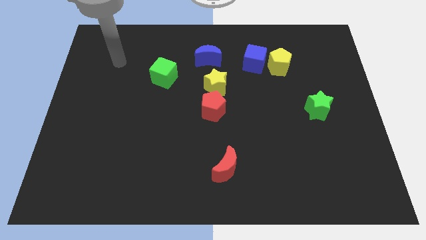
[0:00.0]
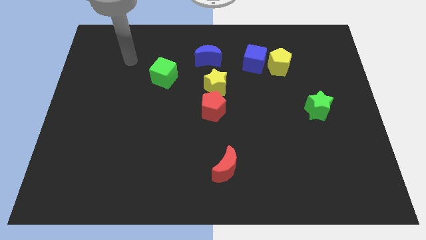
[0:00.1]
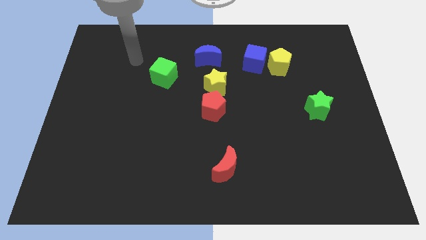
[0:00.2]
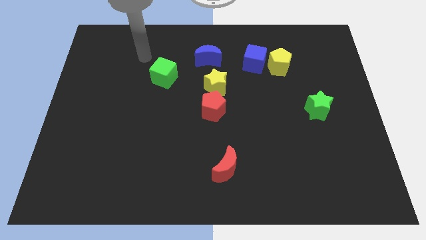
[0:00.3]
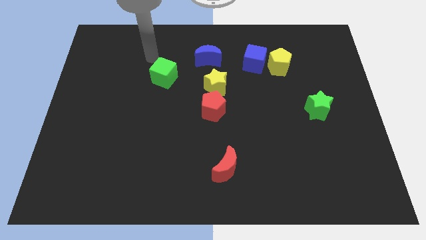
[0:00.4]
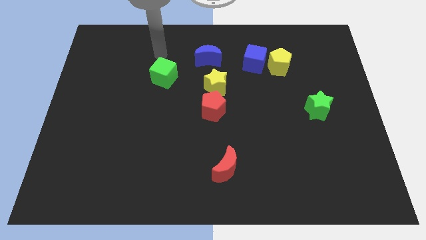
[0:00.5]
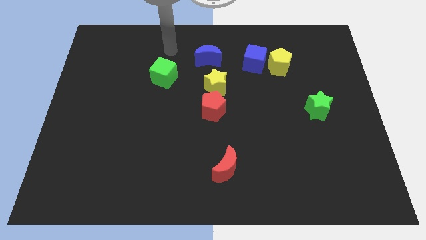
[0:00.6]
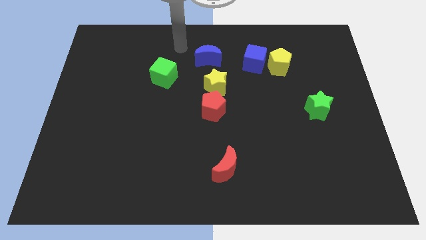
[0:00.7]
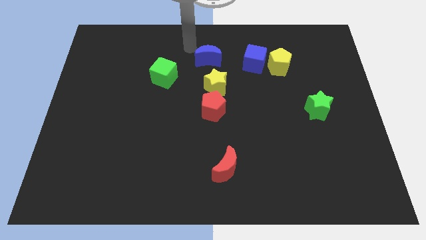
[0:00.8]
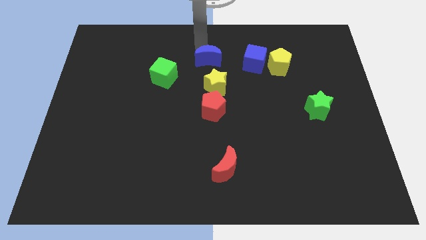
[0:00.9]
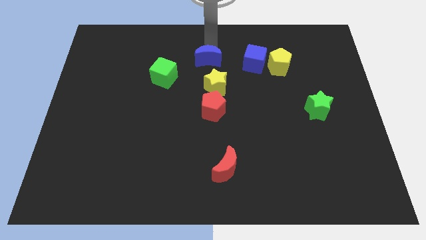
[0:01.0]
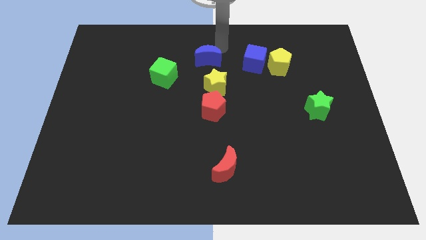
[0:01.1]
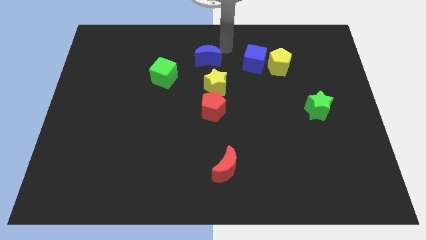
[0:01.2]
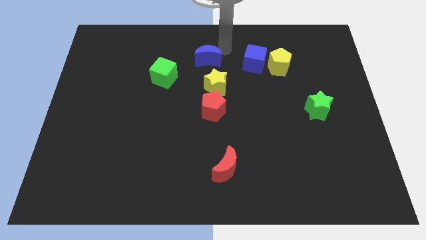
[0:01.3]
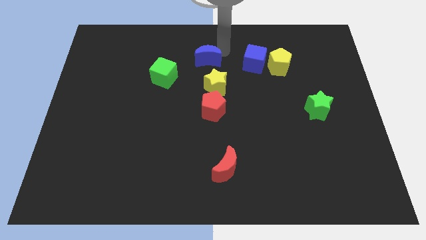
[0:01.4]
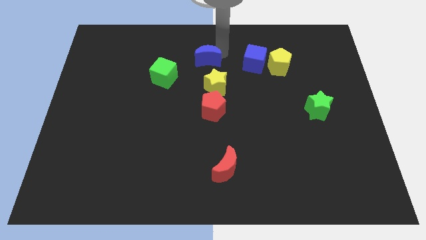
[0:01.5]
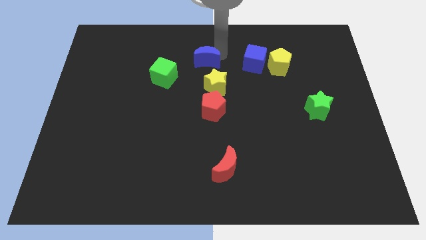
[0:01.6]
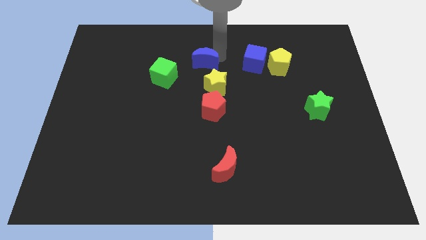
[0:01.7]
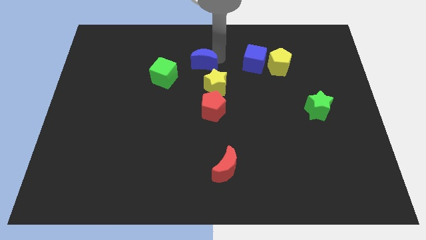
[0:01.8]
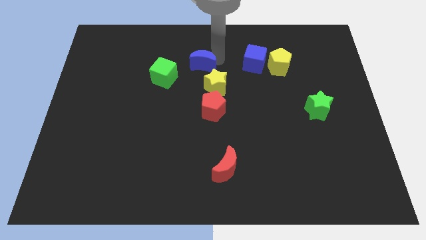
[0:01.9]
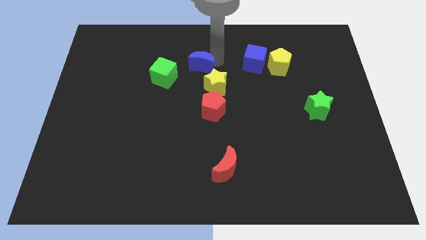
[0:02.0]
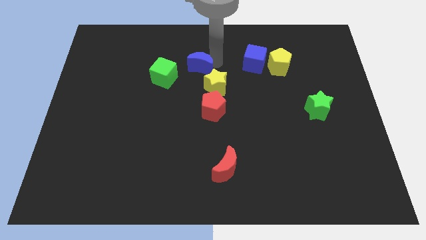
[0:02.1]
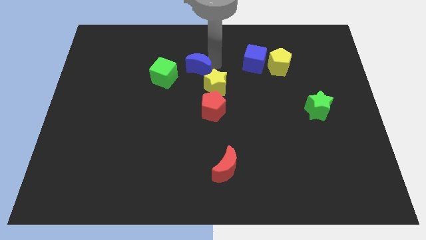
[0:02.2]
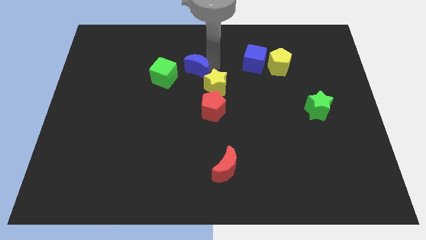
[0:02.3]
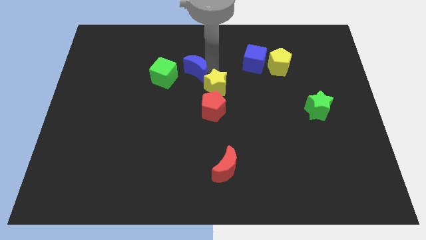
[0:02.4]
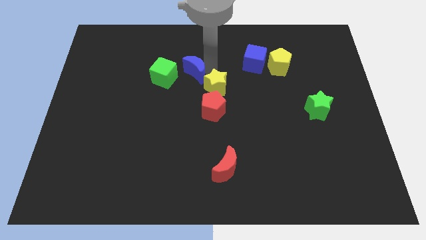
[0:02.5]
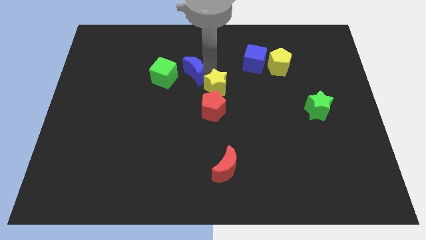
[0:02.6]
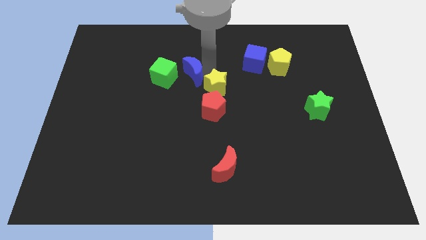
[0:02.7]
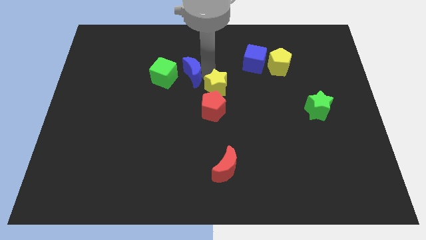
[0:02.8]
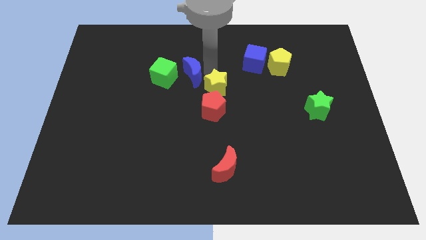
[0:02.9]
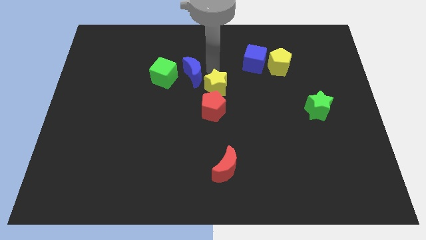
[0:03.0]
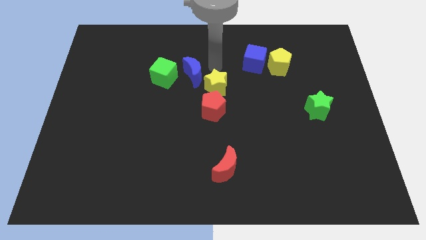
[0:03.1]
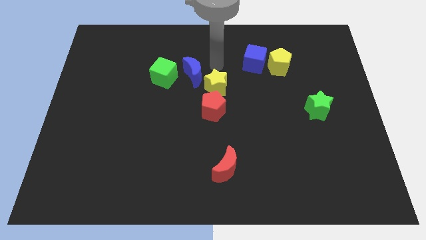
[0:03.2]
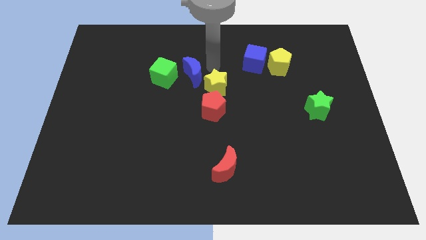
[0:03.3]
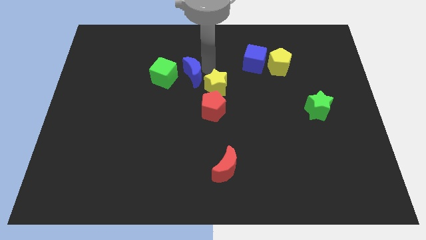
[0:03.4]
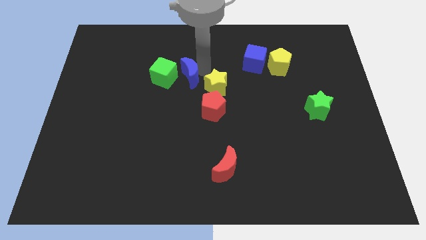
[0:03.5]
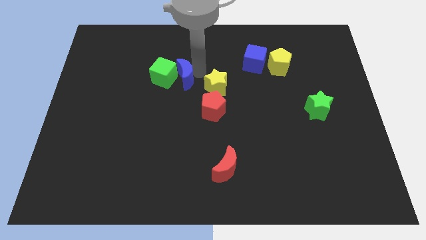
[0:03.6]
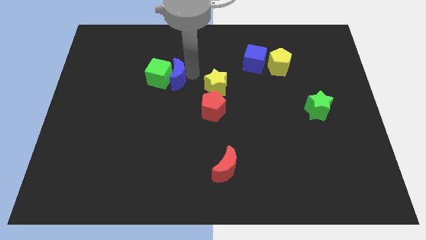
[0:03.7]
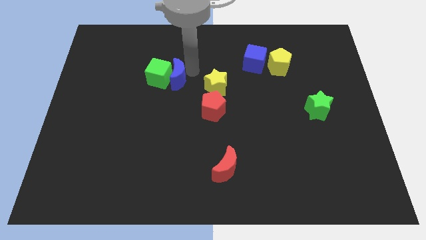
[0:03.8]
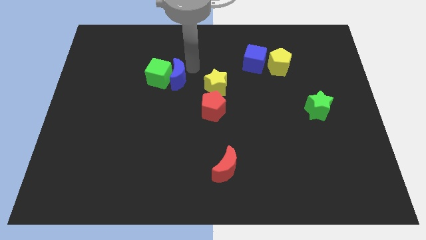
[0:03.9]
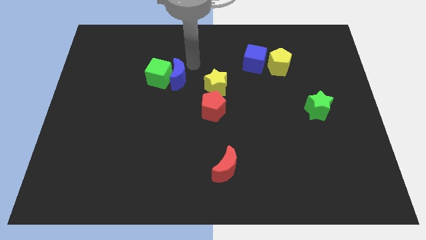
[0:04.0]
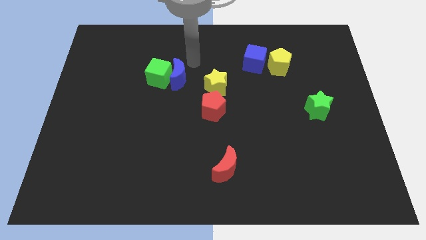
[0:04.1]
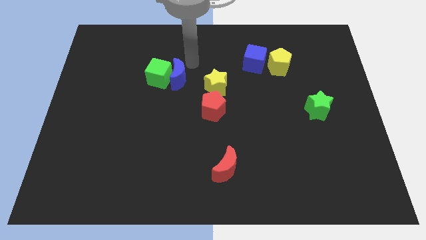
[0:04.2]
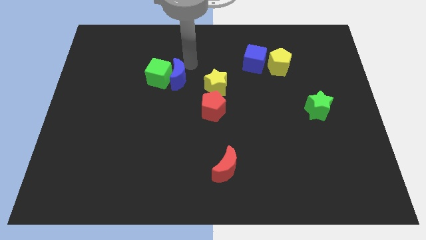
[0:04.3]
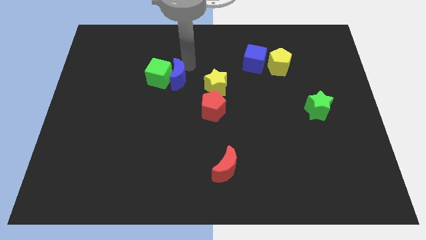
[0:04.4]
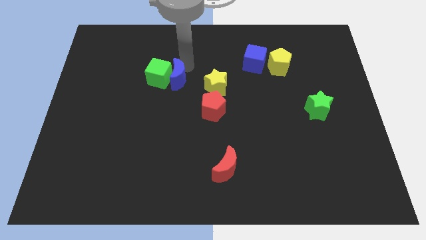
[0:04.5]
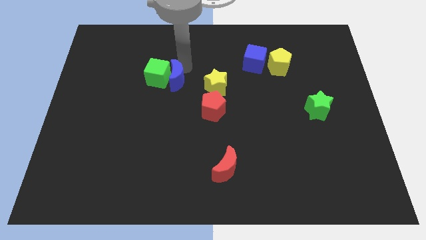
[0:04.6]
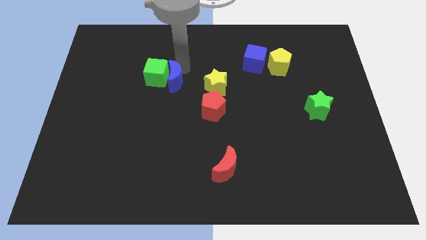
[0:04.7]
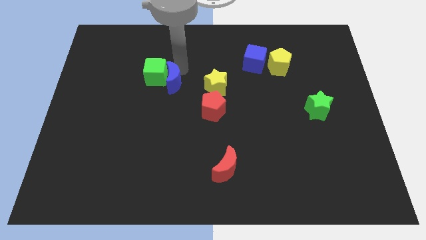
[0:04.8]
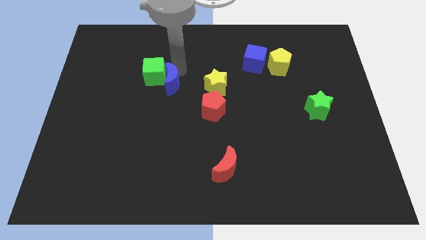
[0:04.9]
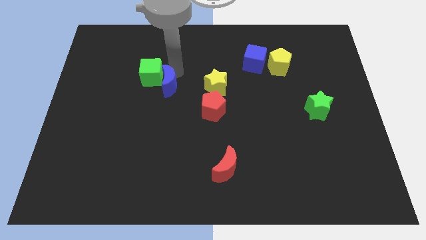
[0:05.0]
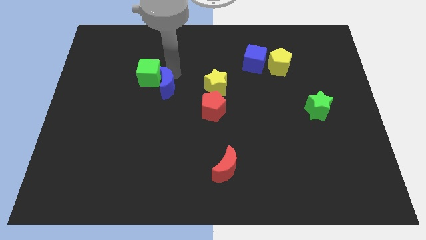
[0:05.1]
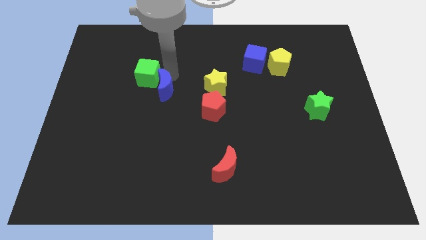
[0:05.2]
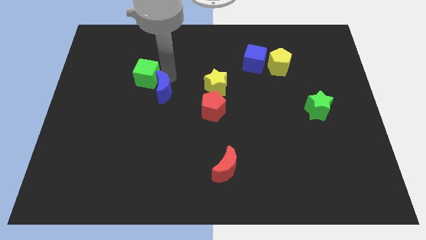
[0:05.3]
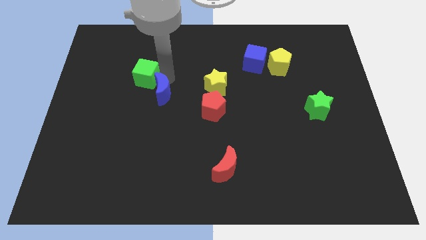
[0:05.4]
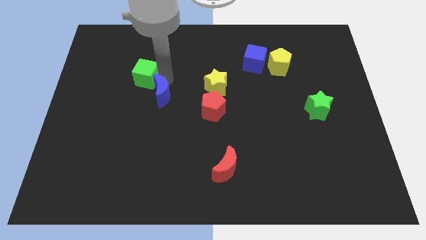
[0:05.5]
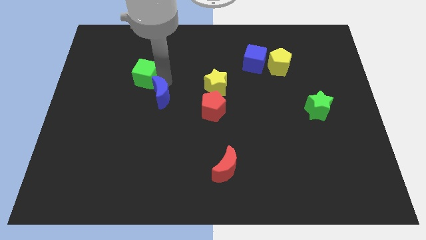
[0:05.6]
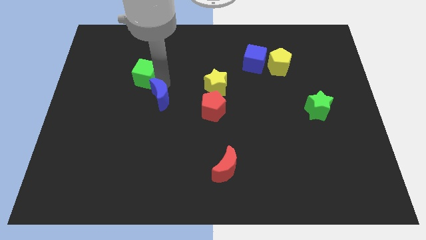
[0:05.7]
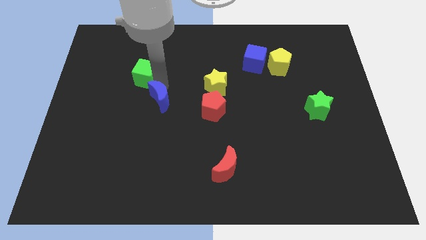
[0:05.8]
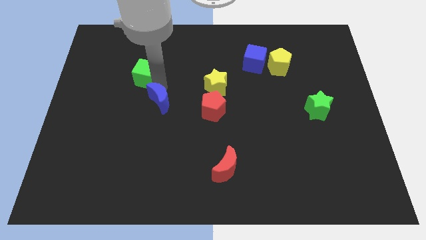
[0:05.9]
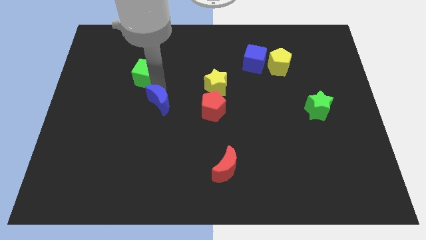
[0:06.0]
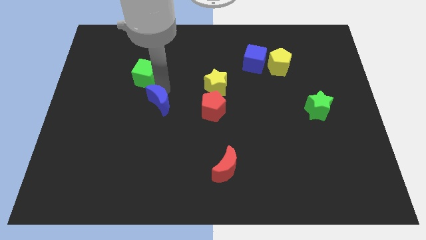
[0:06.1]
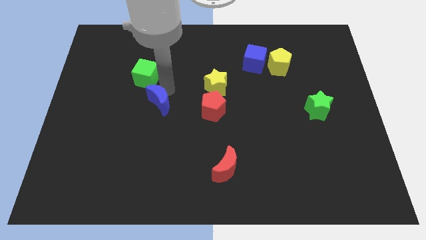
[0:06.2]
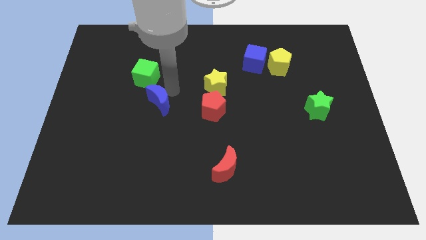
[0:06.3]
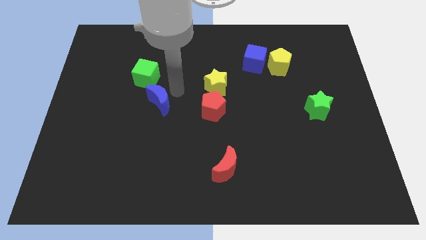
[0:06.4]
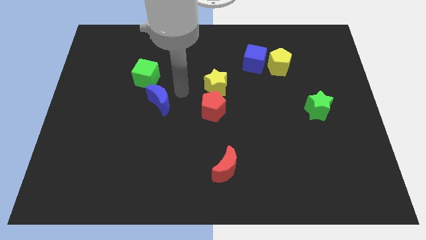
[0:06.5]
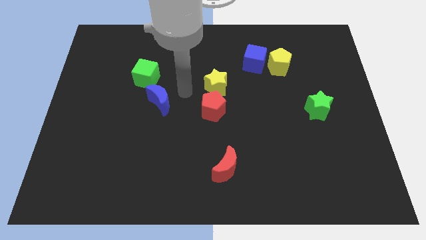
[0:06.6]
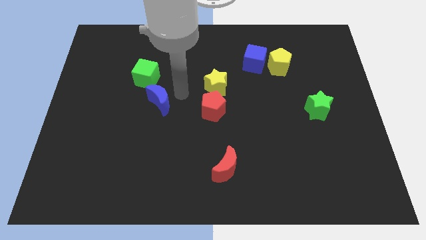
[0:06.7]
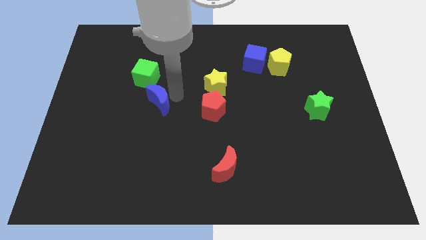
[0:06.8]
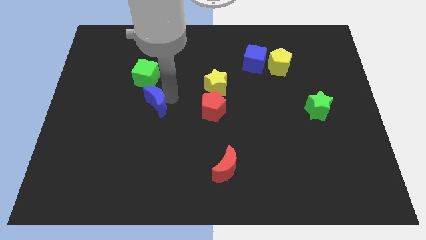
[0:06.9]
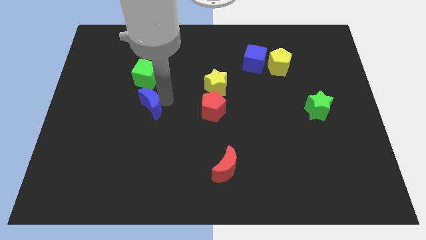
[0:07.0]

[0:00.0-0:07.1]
push the blue moon diagonally downwards and left

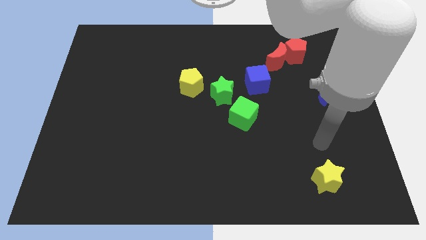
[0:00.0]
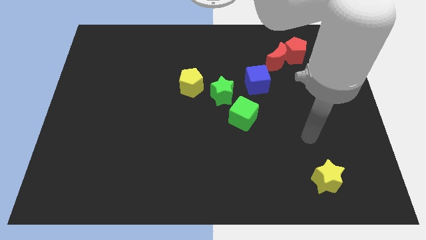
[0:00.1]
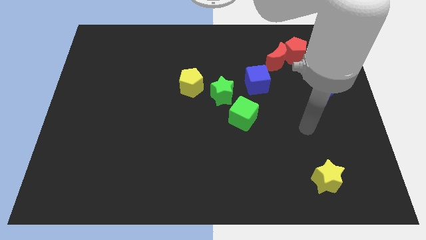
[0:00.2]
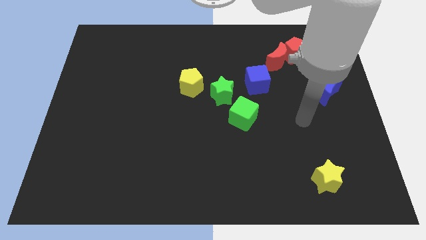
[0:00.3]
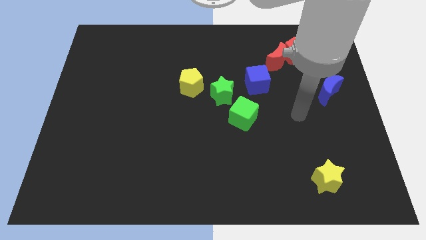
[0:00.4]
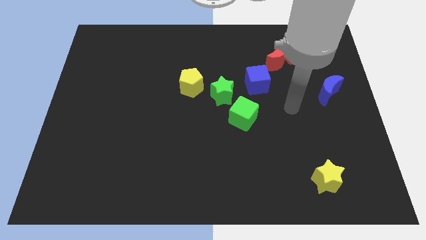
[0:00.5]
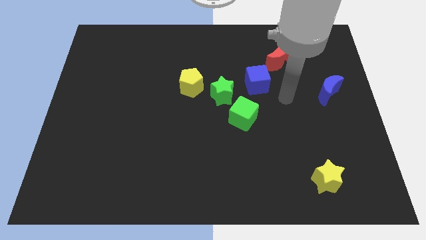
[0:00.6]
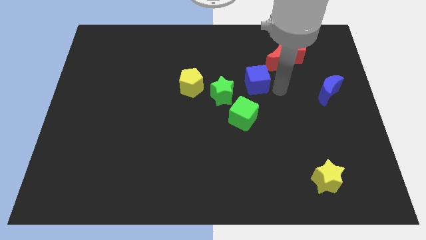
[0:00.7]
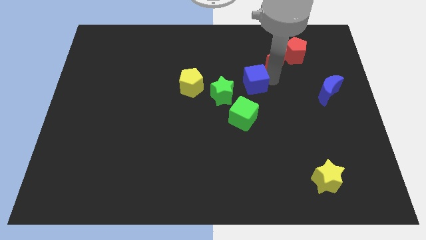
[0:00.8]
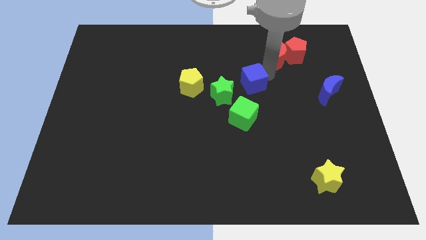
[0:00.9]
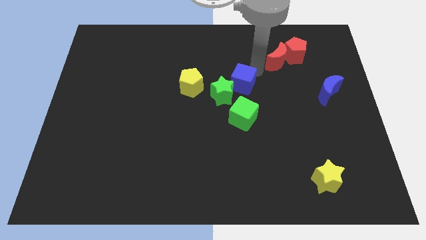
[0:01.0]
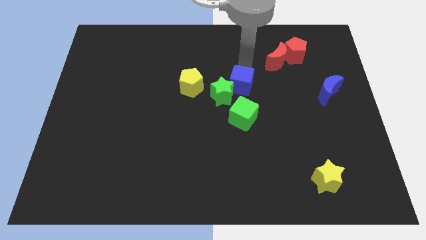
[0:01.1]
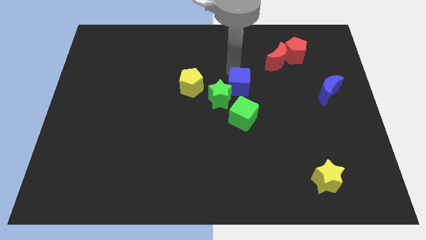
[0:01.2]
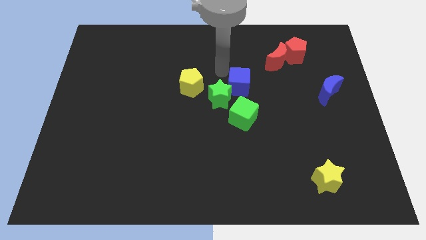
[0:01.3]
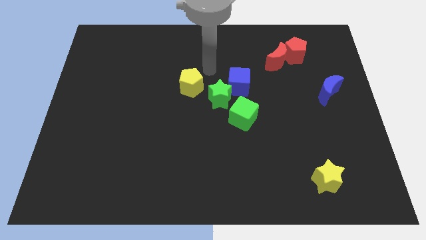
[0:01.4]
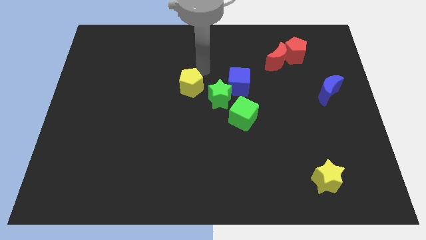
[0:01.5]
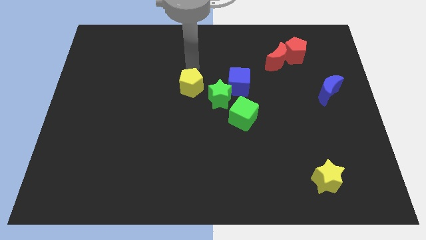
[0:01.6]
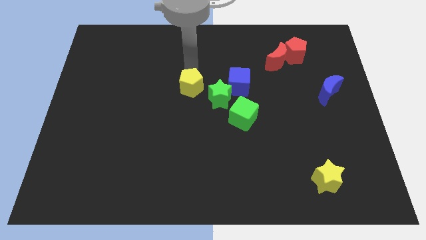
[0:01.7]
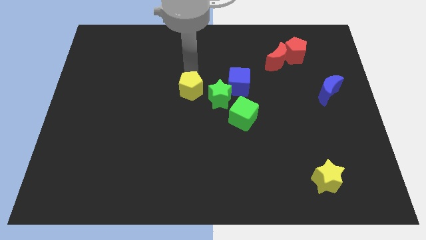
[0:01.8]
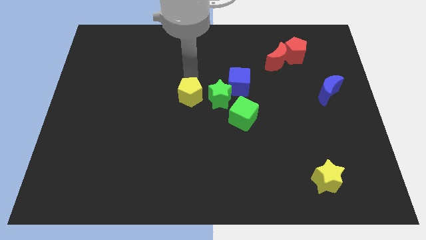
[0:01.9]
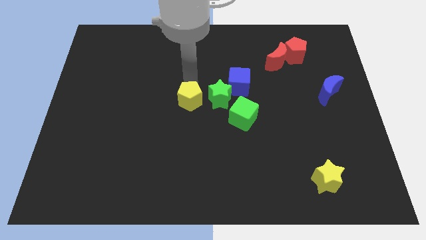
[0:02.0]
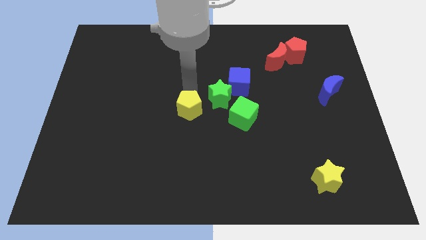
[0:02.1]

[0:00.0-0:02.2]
slide the yellow pentagon down somewhat
